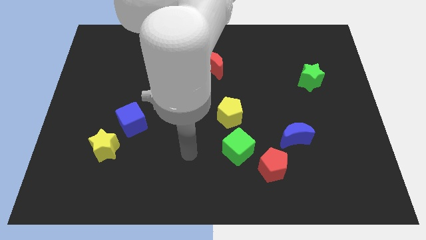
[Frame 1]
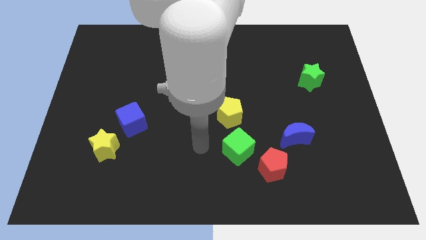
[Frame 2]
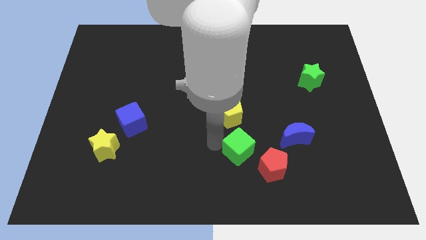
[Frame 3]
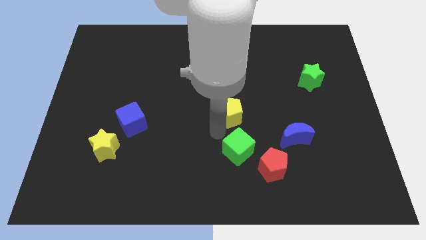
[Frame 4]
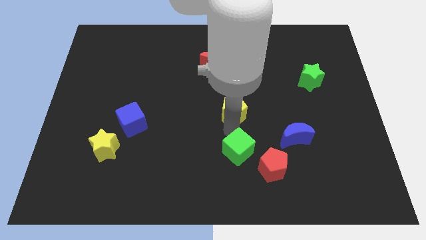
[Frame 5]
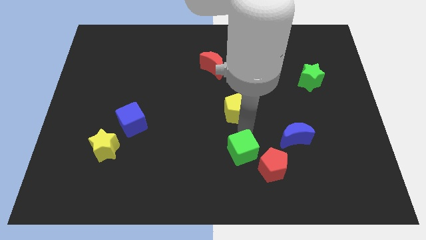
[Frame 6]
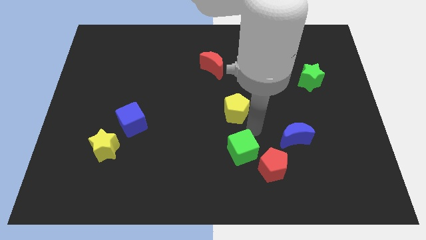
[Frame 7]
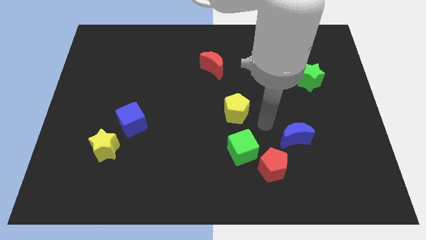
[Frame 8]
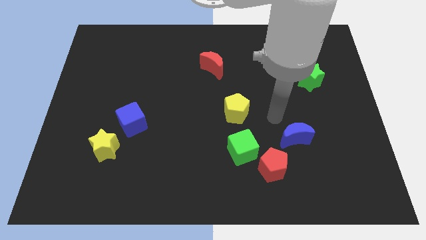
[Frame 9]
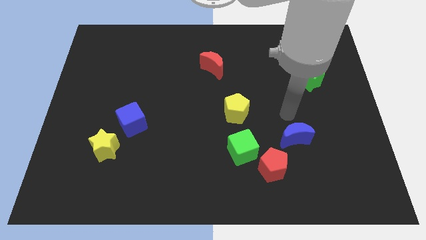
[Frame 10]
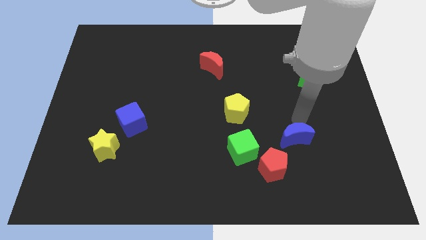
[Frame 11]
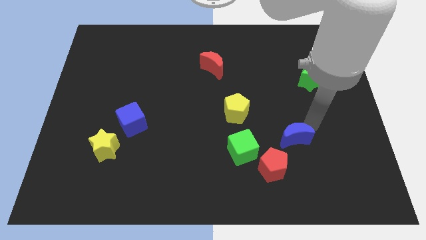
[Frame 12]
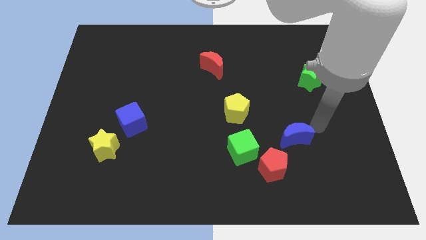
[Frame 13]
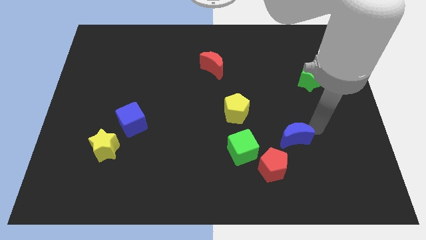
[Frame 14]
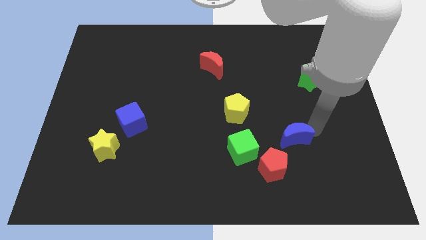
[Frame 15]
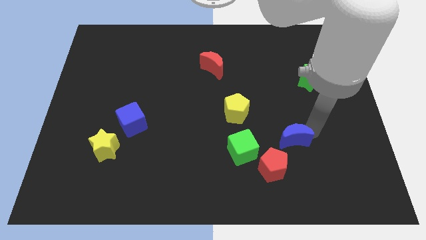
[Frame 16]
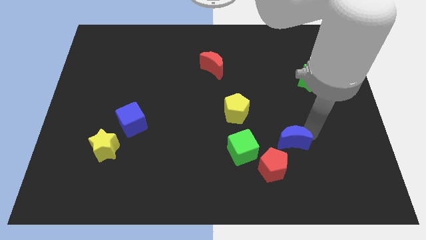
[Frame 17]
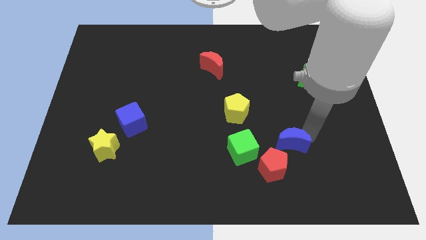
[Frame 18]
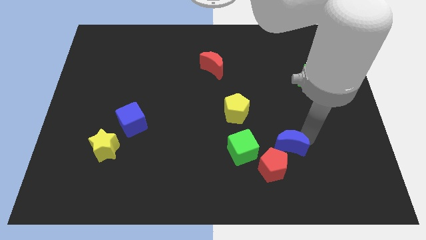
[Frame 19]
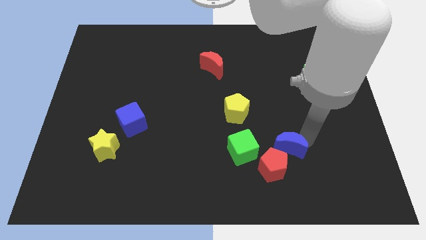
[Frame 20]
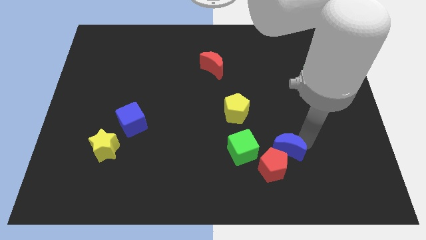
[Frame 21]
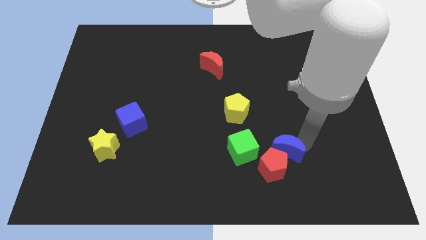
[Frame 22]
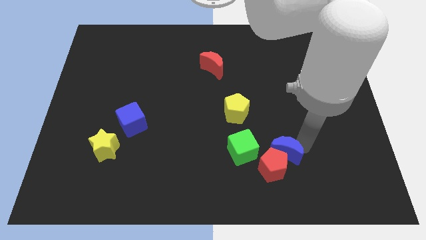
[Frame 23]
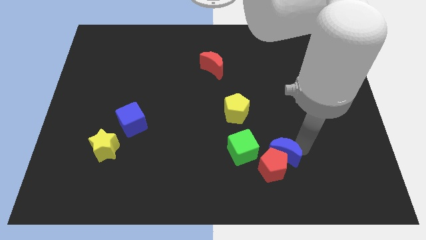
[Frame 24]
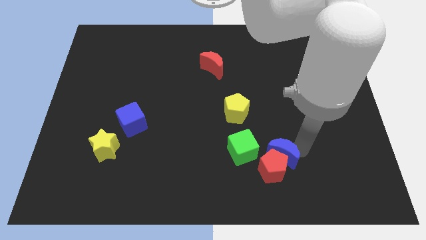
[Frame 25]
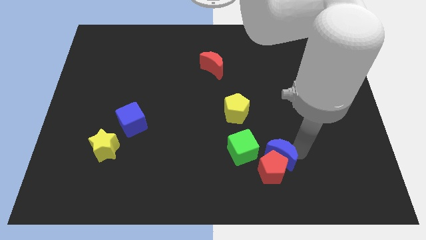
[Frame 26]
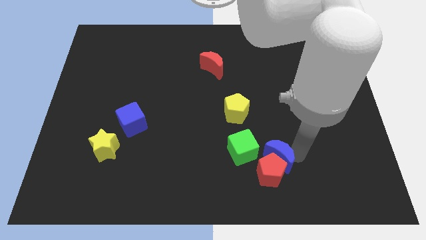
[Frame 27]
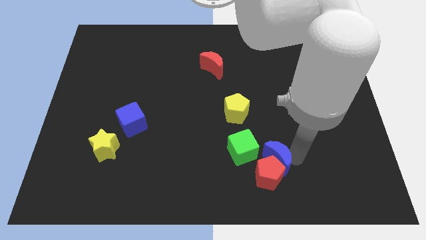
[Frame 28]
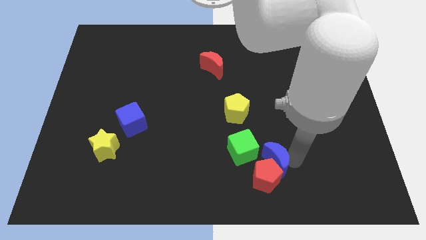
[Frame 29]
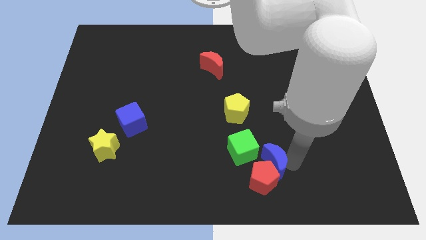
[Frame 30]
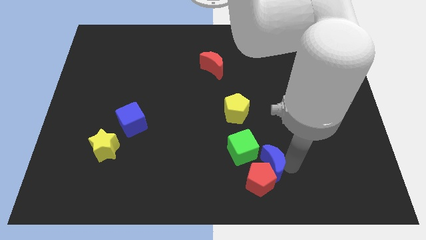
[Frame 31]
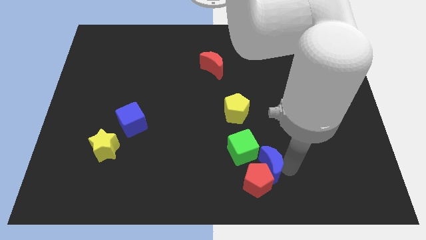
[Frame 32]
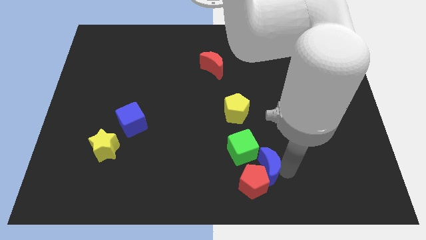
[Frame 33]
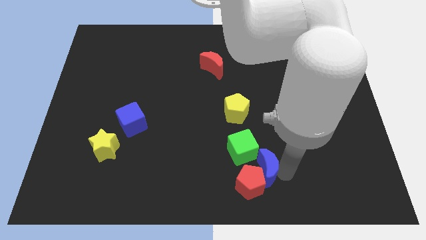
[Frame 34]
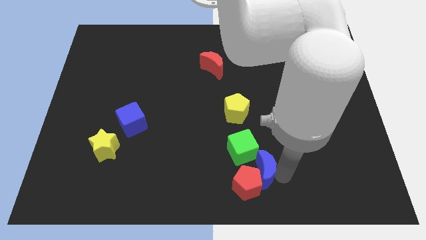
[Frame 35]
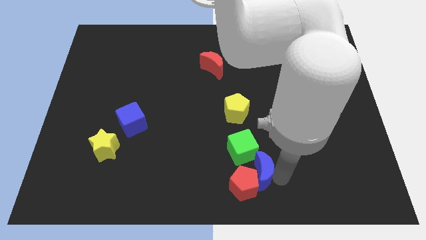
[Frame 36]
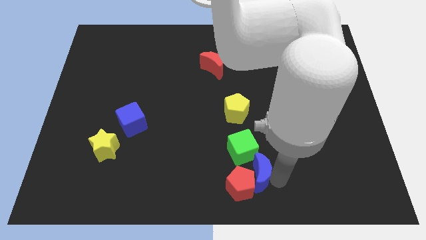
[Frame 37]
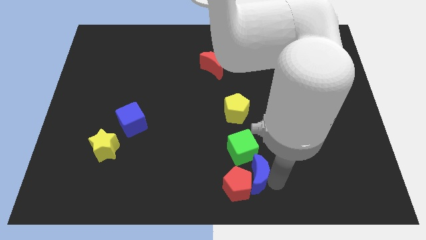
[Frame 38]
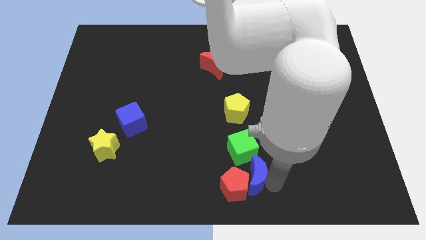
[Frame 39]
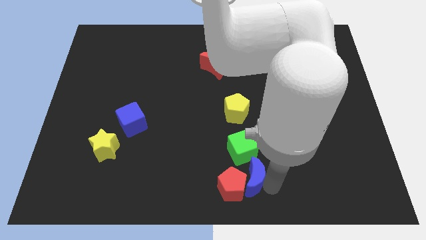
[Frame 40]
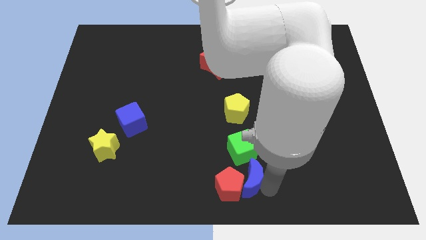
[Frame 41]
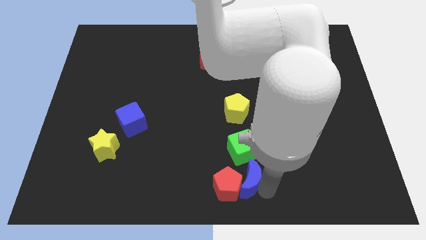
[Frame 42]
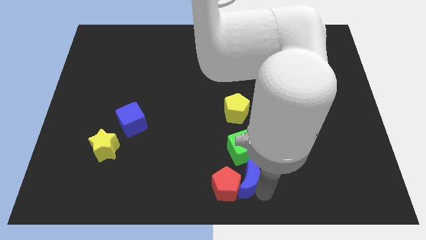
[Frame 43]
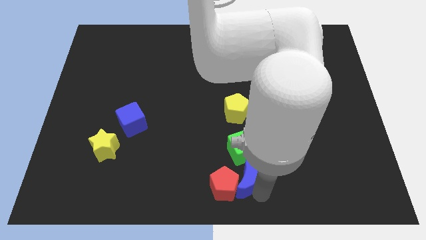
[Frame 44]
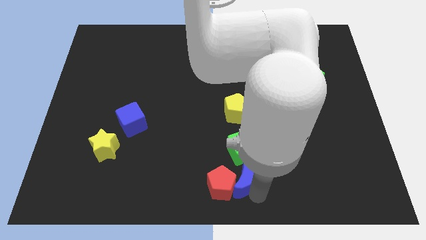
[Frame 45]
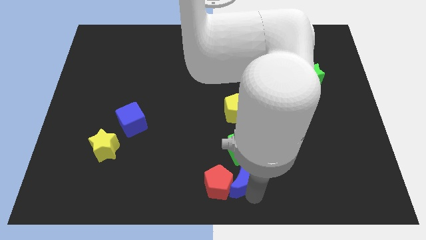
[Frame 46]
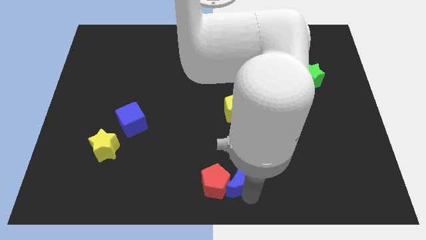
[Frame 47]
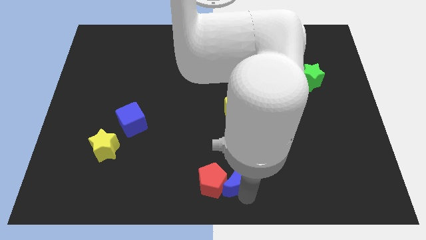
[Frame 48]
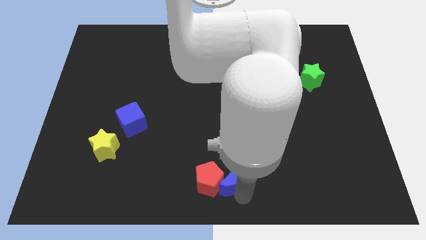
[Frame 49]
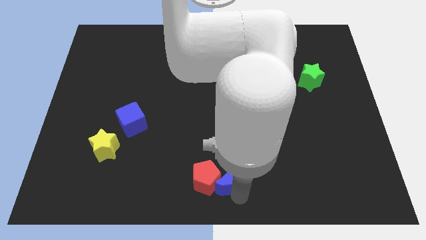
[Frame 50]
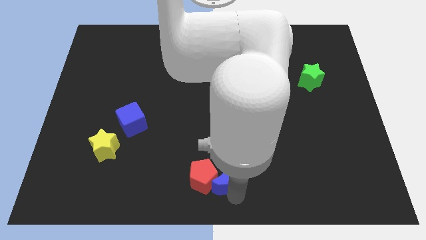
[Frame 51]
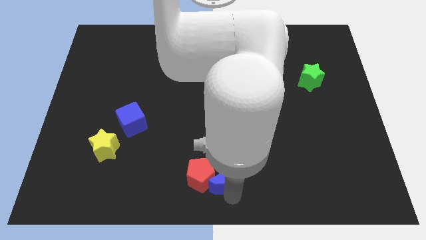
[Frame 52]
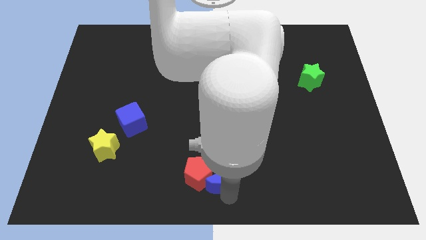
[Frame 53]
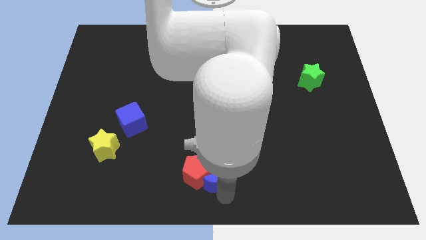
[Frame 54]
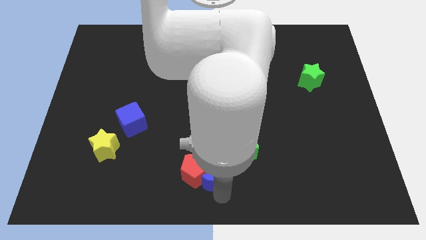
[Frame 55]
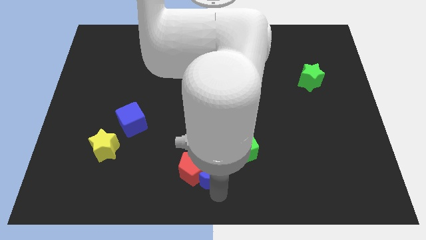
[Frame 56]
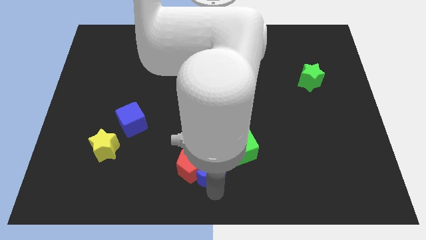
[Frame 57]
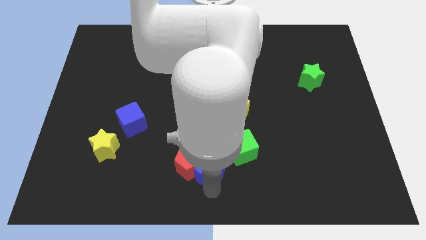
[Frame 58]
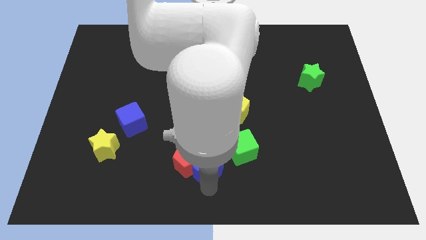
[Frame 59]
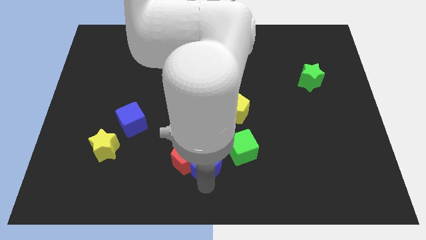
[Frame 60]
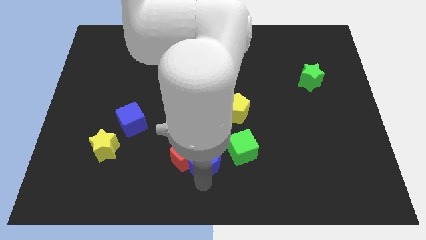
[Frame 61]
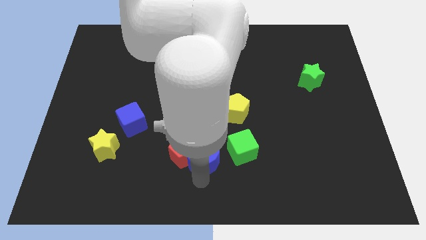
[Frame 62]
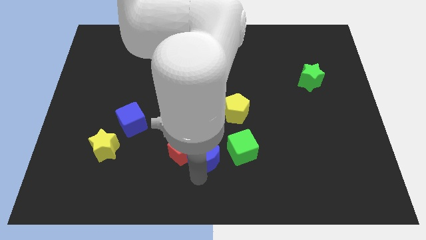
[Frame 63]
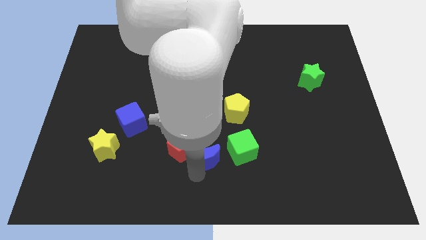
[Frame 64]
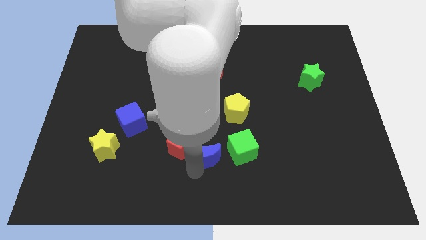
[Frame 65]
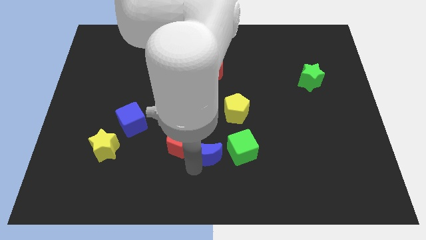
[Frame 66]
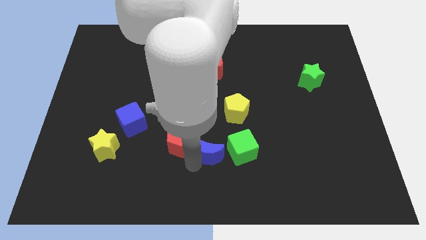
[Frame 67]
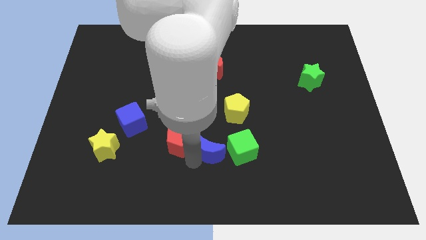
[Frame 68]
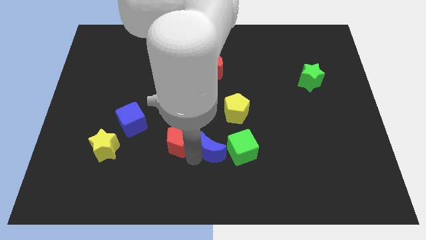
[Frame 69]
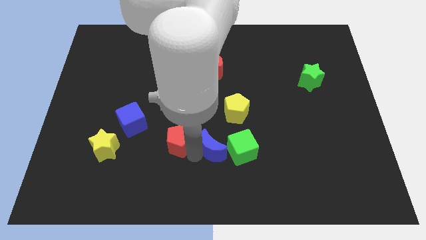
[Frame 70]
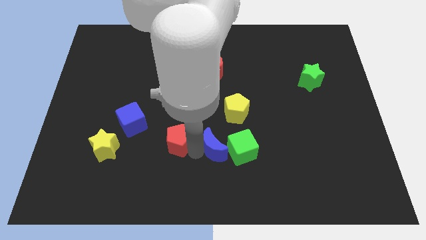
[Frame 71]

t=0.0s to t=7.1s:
move the blue moon to the green cube
